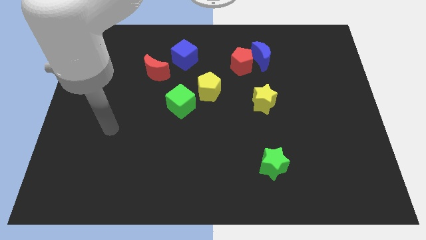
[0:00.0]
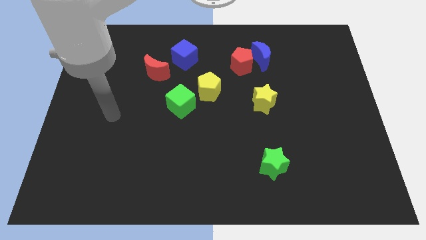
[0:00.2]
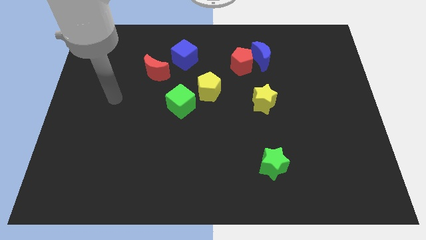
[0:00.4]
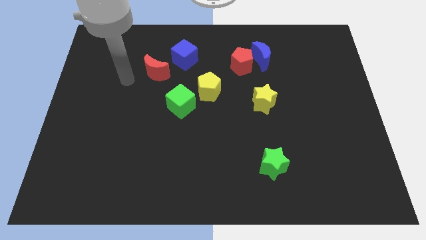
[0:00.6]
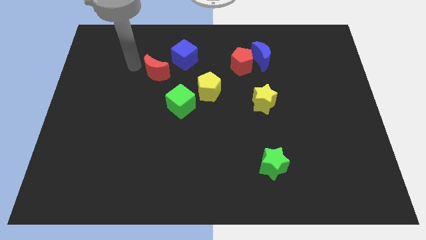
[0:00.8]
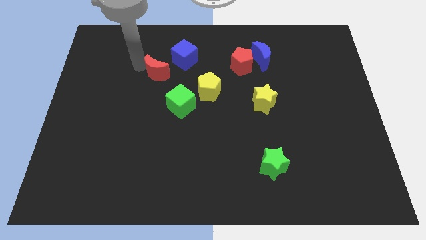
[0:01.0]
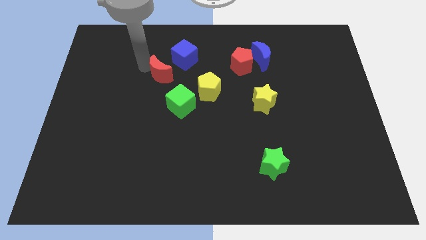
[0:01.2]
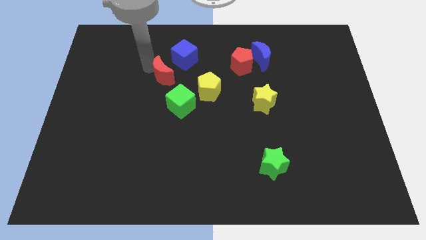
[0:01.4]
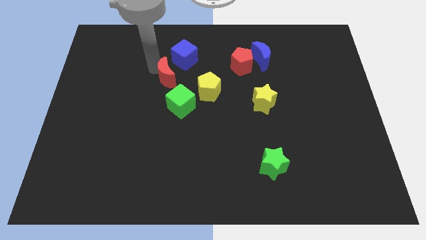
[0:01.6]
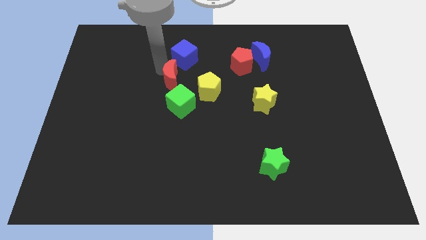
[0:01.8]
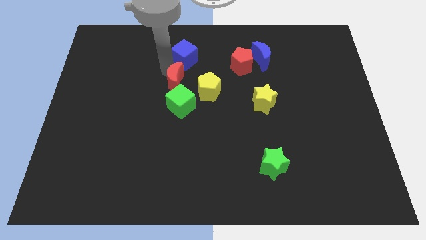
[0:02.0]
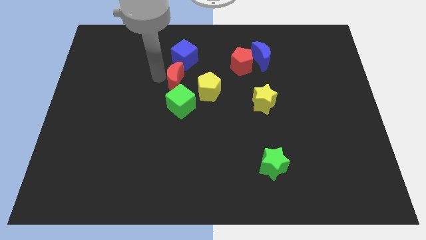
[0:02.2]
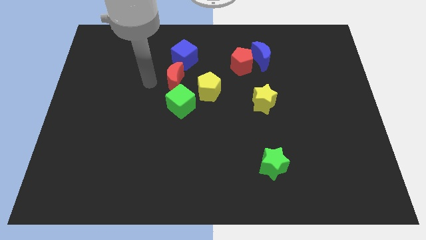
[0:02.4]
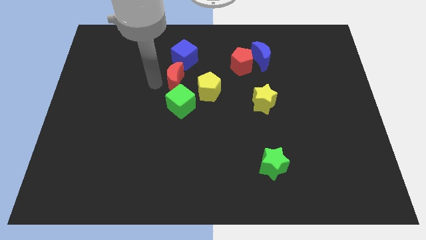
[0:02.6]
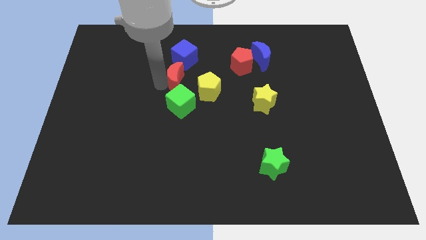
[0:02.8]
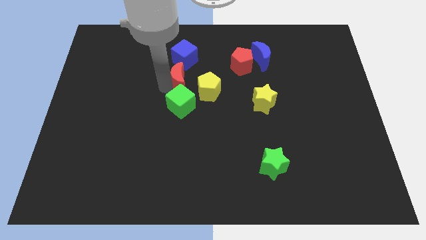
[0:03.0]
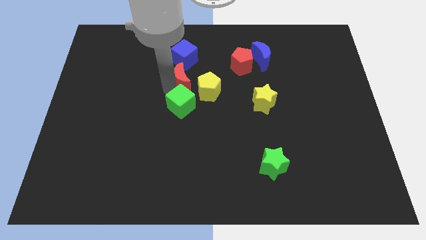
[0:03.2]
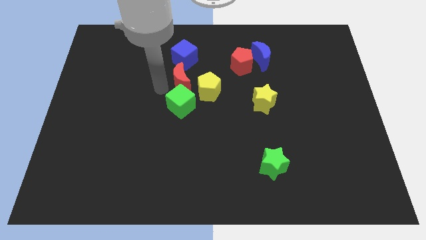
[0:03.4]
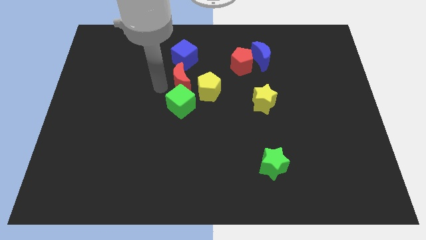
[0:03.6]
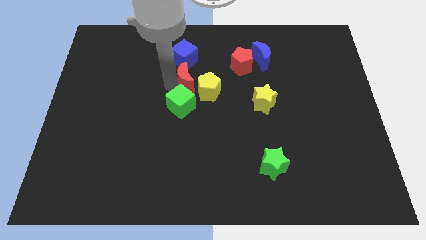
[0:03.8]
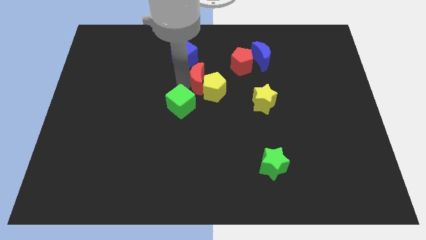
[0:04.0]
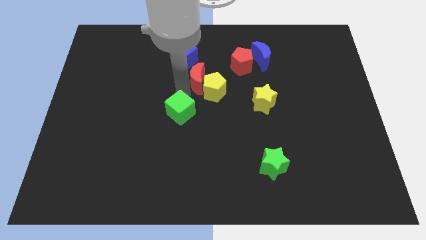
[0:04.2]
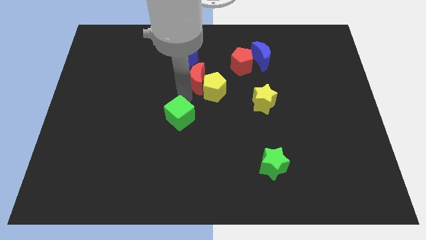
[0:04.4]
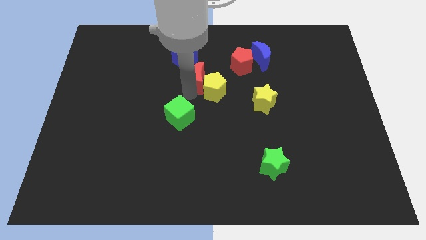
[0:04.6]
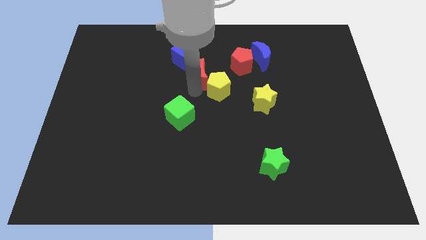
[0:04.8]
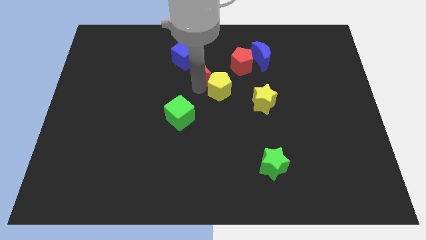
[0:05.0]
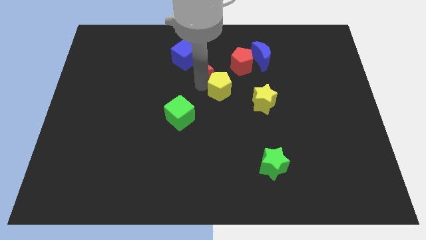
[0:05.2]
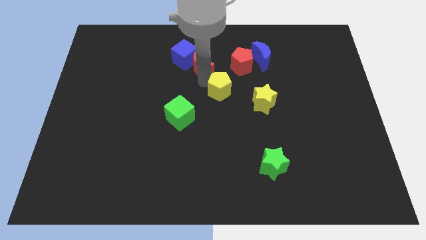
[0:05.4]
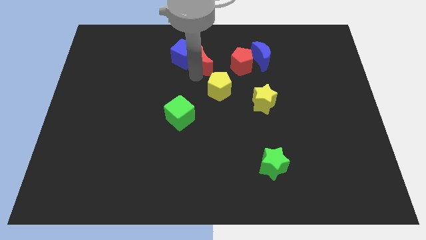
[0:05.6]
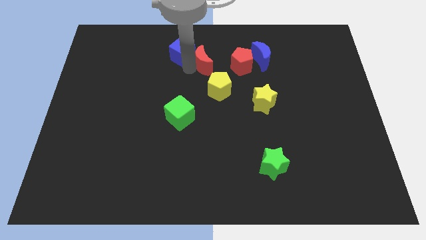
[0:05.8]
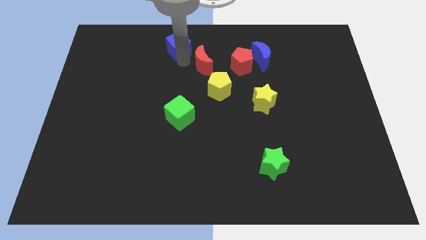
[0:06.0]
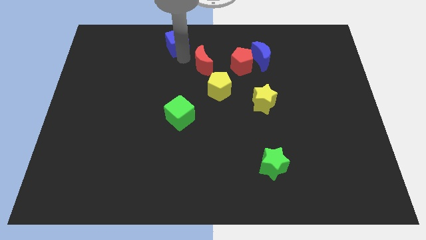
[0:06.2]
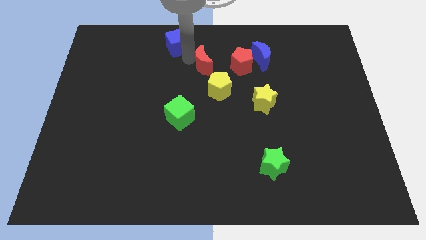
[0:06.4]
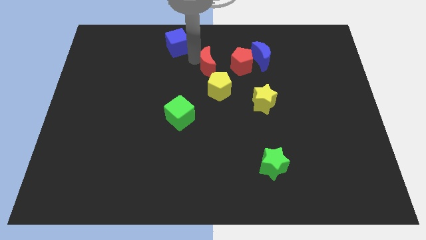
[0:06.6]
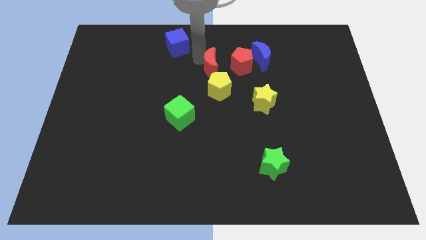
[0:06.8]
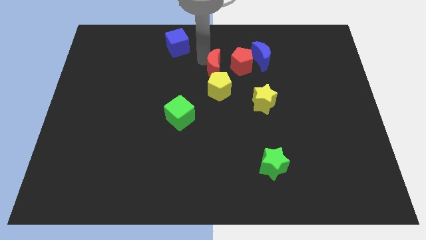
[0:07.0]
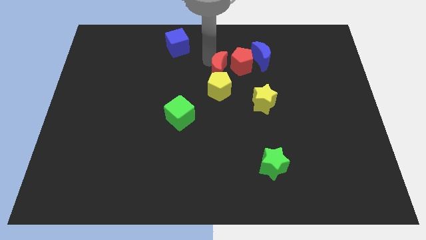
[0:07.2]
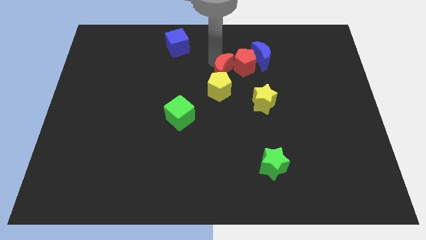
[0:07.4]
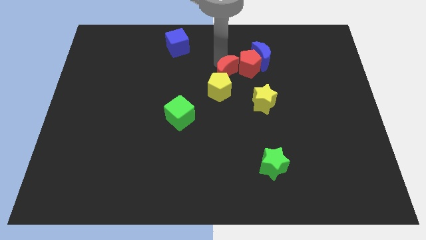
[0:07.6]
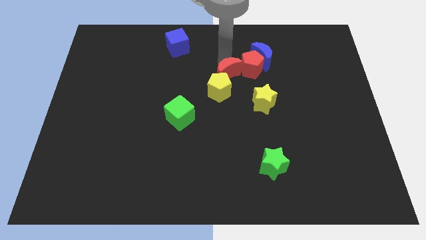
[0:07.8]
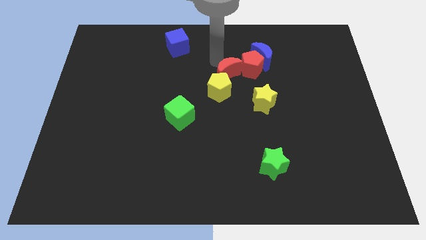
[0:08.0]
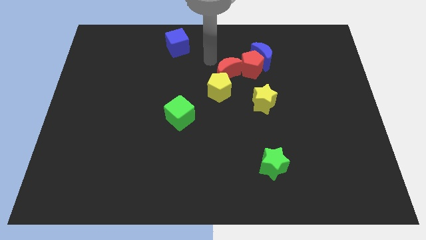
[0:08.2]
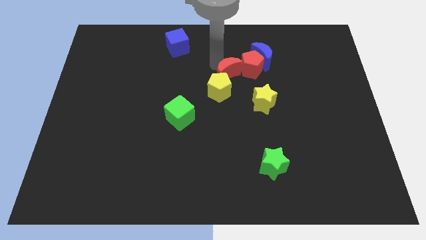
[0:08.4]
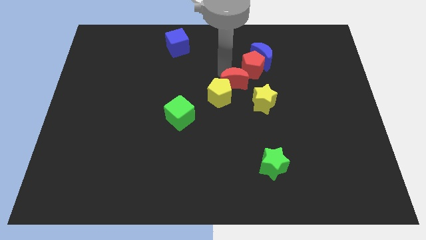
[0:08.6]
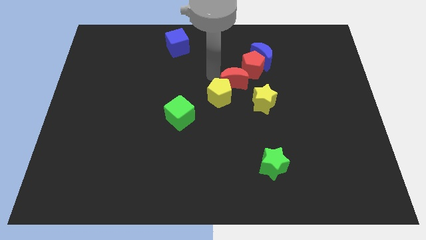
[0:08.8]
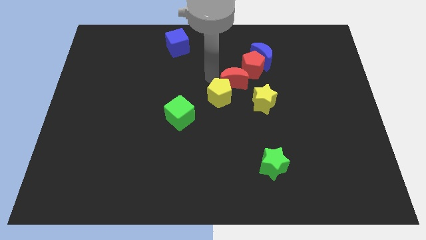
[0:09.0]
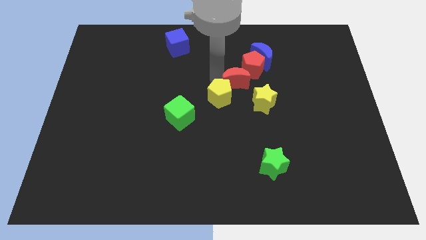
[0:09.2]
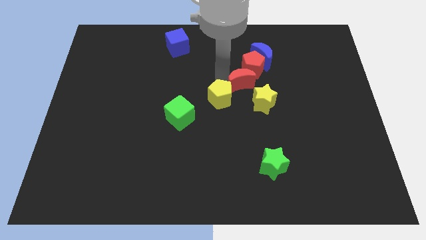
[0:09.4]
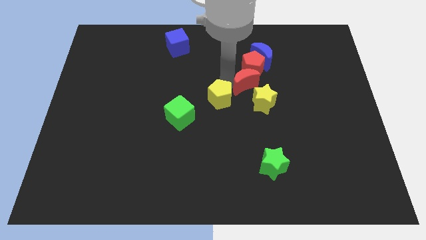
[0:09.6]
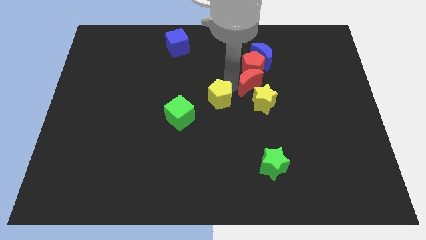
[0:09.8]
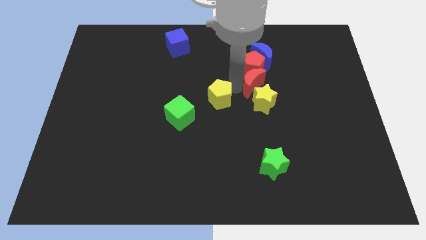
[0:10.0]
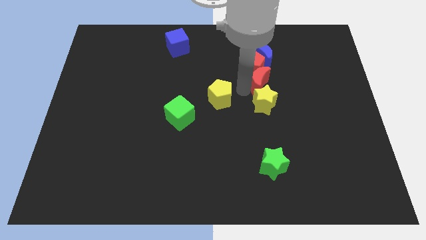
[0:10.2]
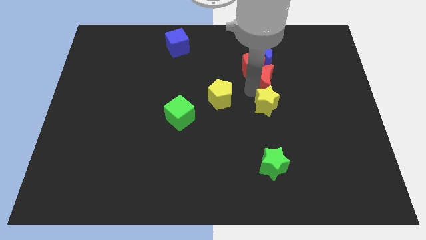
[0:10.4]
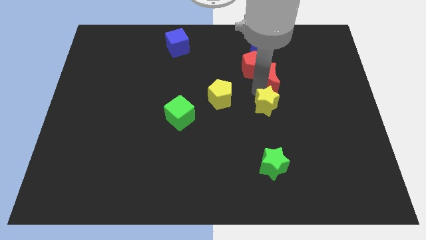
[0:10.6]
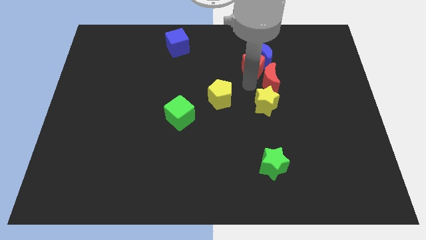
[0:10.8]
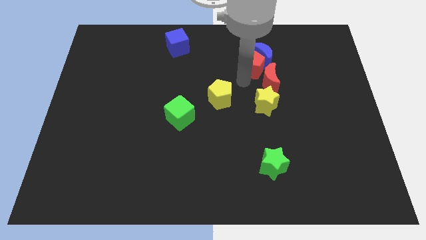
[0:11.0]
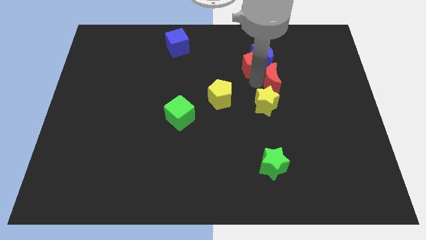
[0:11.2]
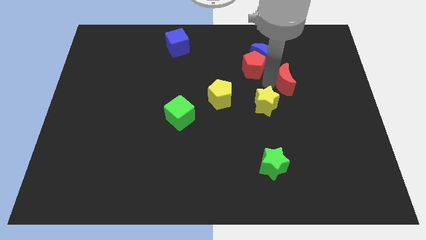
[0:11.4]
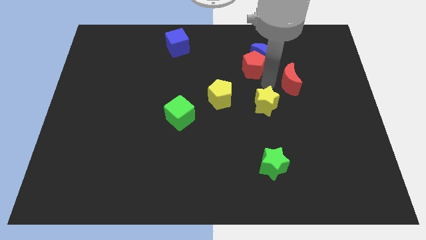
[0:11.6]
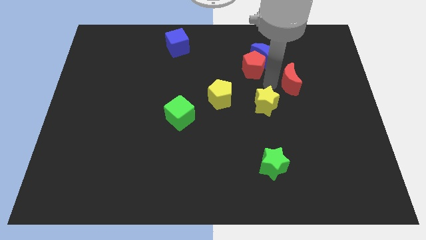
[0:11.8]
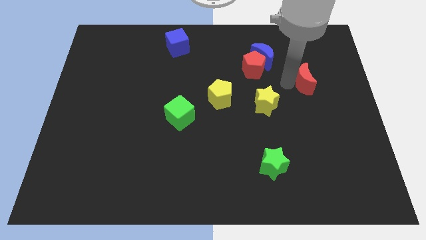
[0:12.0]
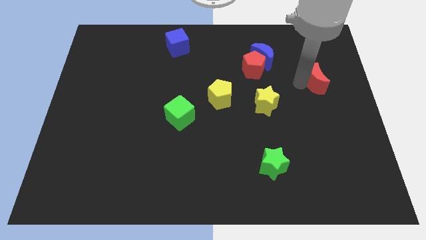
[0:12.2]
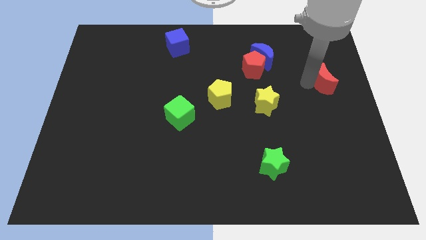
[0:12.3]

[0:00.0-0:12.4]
push the red moon to the right side

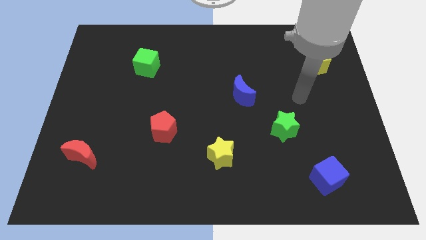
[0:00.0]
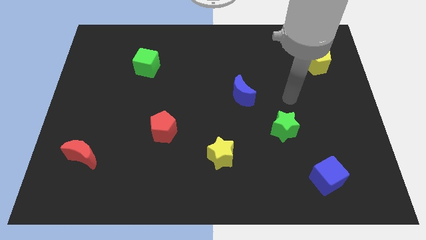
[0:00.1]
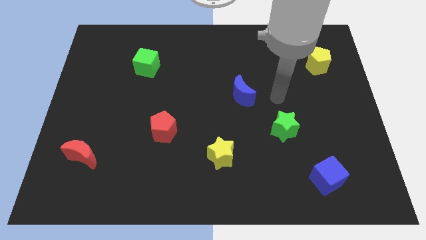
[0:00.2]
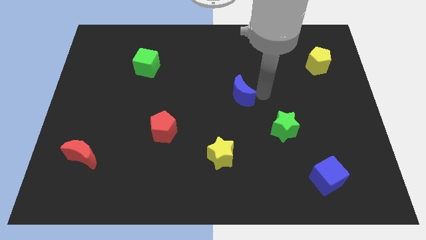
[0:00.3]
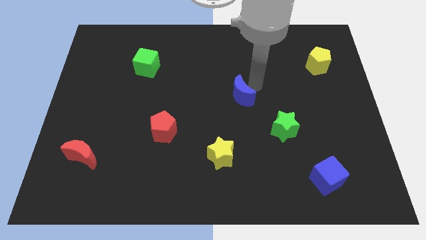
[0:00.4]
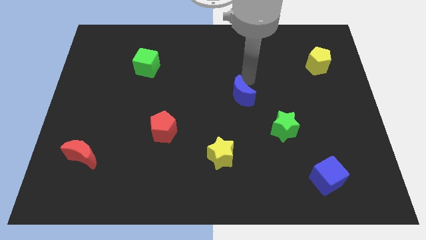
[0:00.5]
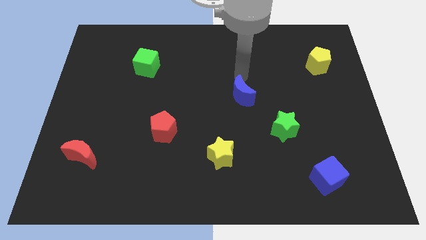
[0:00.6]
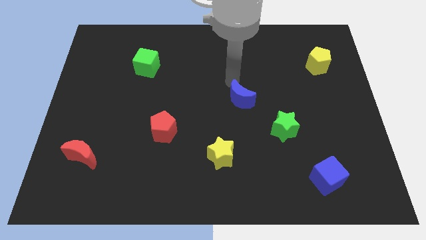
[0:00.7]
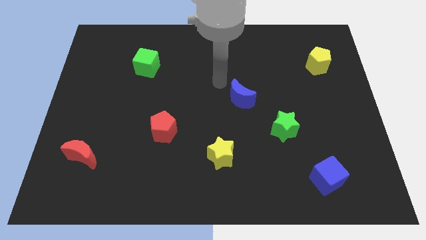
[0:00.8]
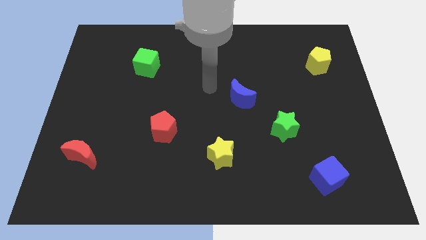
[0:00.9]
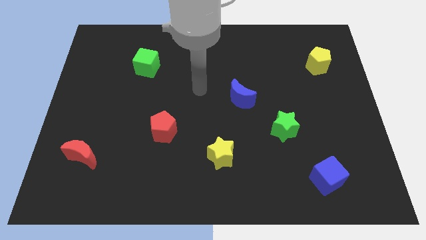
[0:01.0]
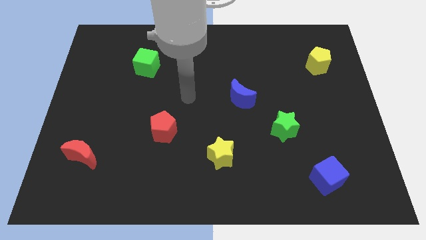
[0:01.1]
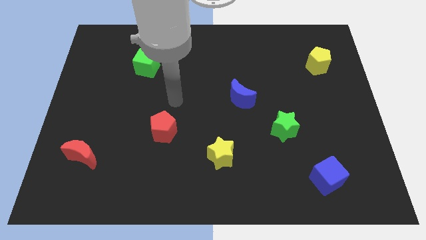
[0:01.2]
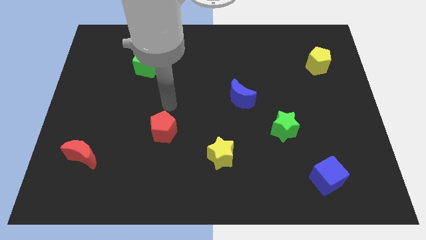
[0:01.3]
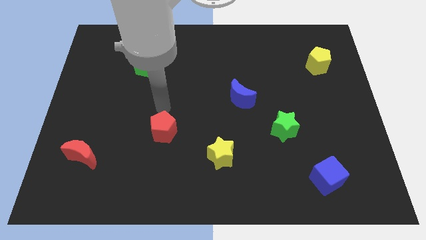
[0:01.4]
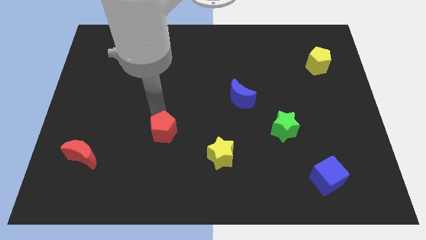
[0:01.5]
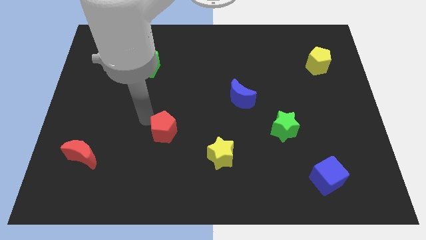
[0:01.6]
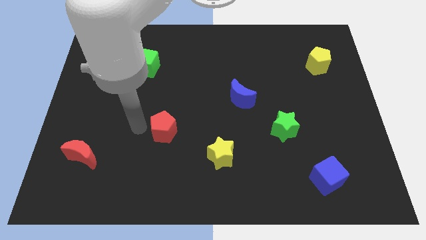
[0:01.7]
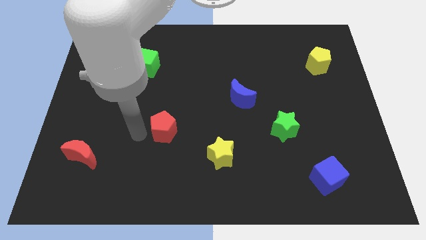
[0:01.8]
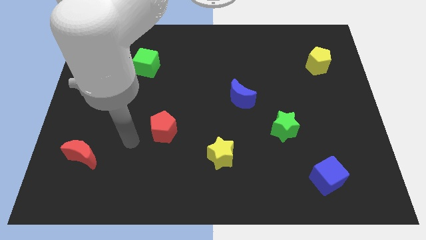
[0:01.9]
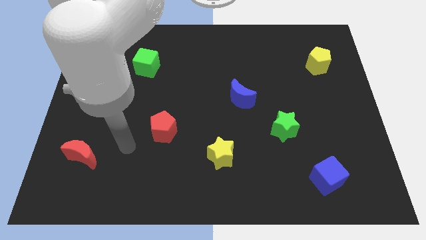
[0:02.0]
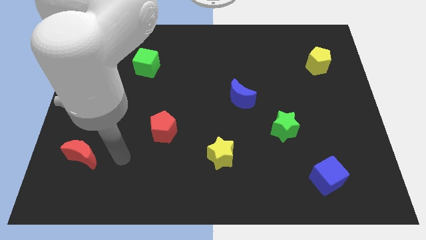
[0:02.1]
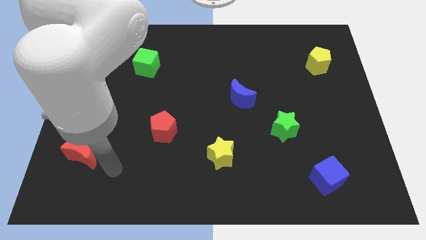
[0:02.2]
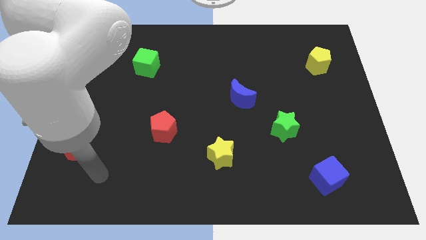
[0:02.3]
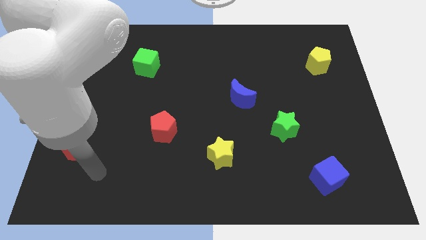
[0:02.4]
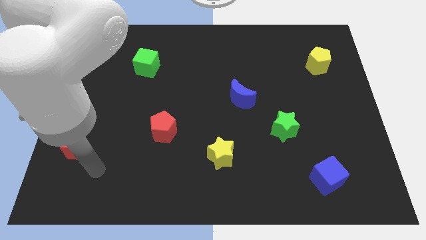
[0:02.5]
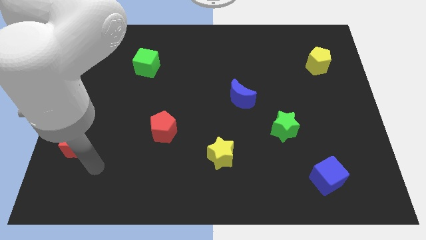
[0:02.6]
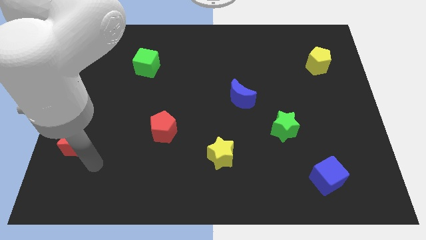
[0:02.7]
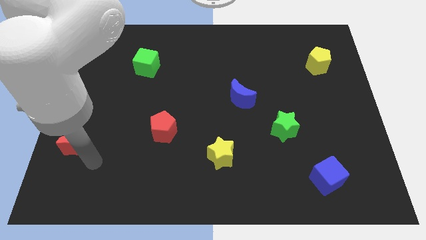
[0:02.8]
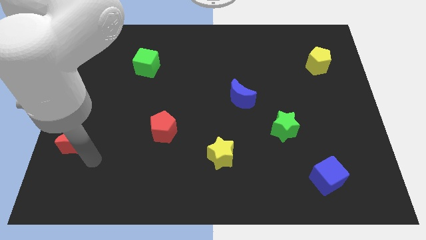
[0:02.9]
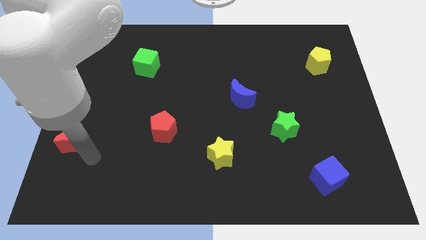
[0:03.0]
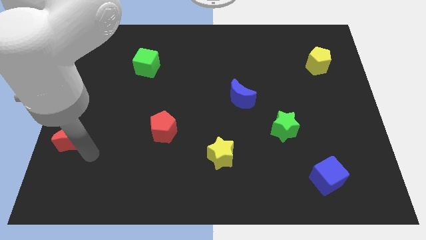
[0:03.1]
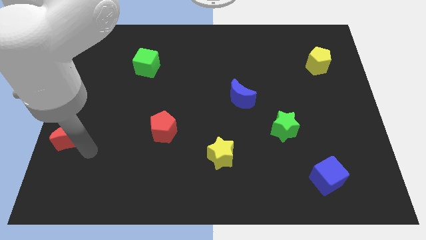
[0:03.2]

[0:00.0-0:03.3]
put the red moon to the left side
